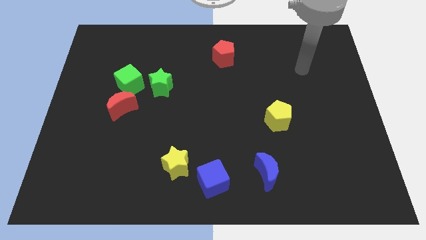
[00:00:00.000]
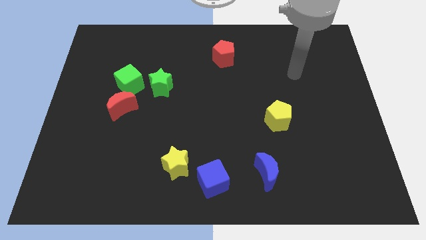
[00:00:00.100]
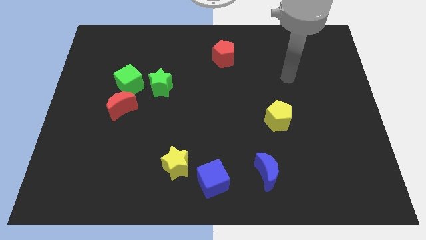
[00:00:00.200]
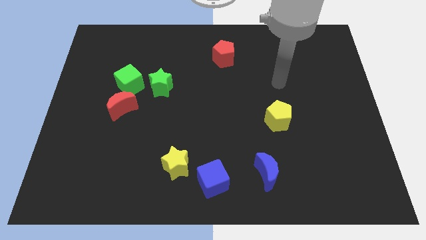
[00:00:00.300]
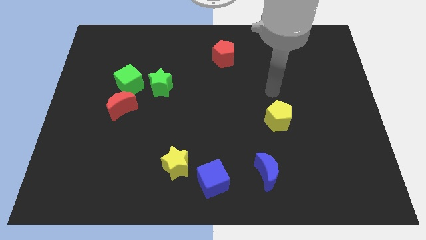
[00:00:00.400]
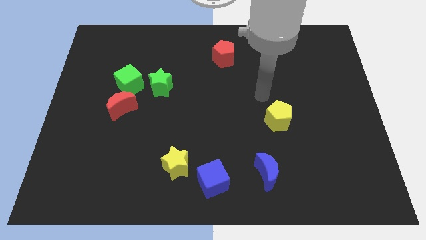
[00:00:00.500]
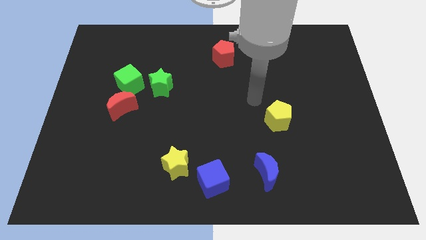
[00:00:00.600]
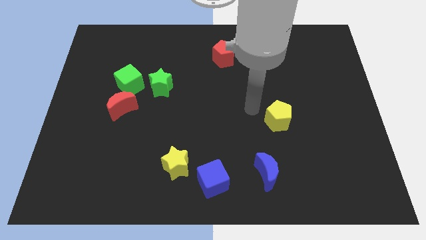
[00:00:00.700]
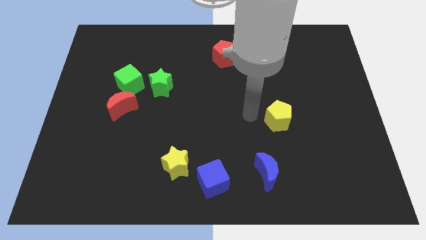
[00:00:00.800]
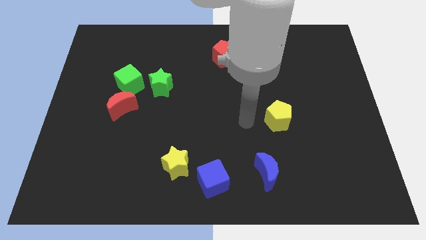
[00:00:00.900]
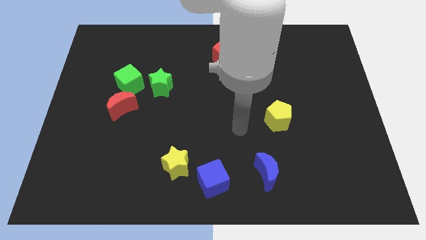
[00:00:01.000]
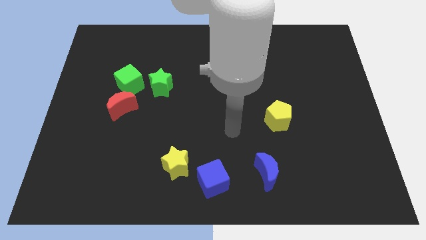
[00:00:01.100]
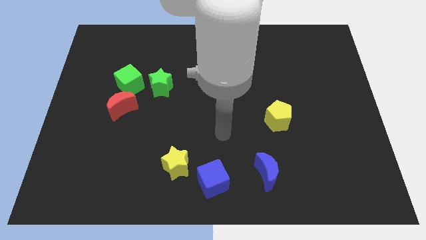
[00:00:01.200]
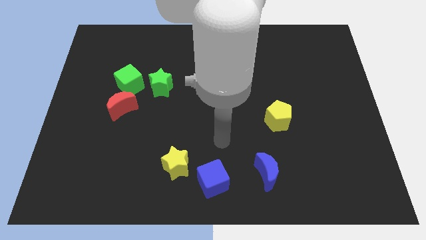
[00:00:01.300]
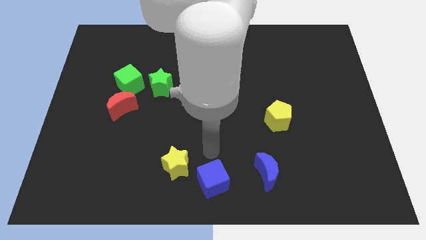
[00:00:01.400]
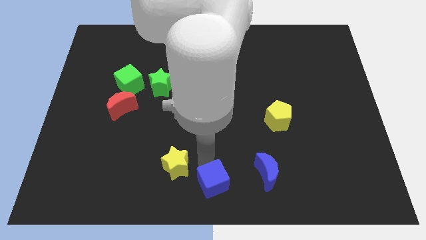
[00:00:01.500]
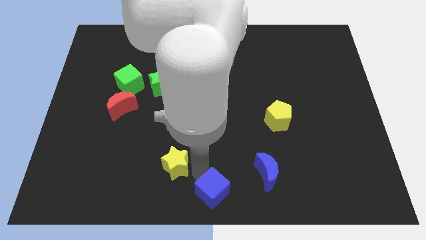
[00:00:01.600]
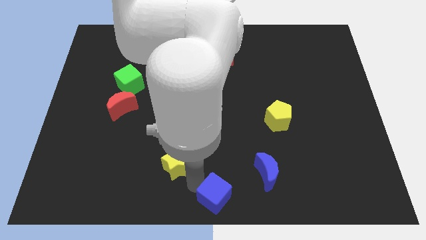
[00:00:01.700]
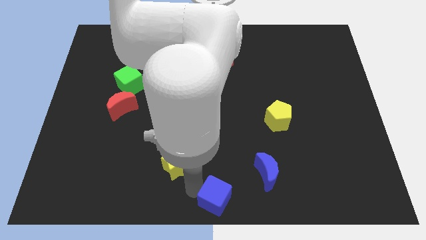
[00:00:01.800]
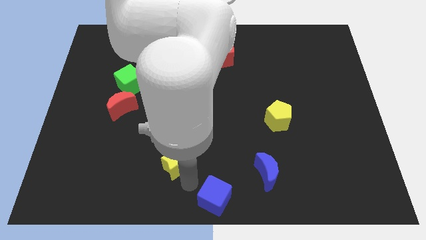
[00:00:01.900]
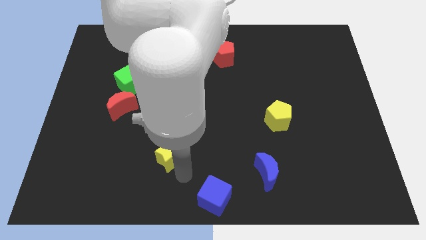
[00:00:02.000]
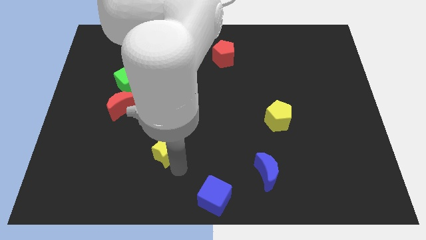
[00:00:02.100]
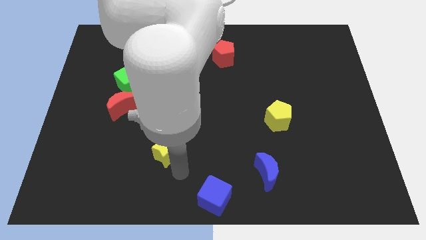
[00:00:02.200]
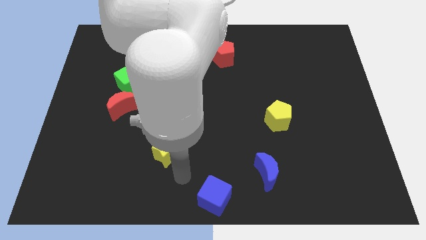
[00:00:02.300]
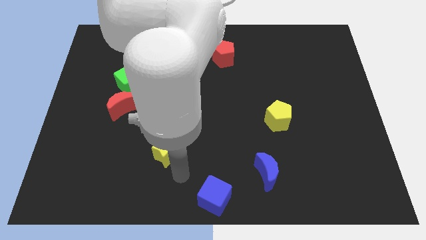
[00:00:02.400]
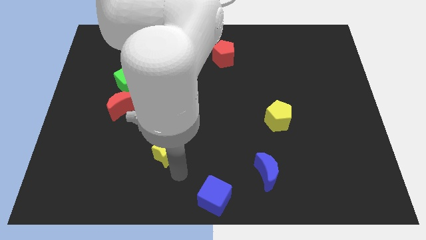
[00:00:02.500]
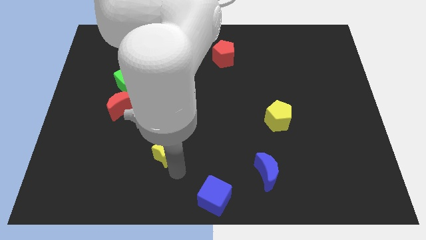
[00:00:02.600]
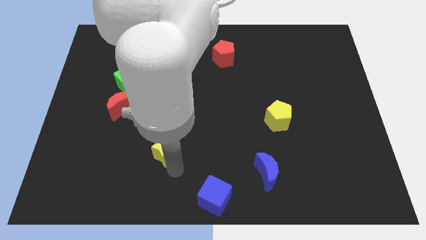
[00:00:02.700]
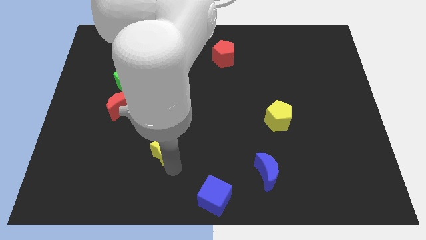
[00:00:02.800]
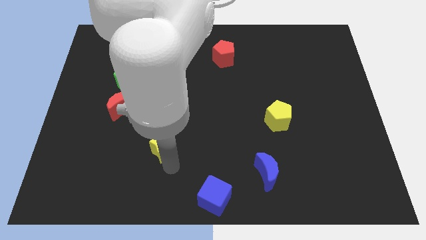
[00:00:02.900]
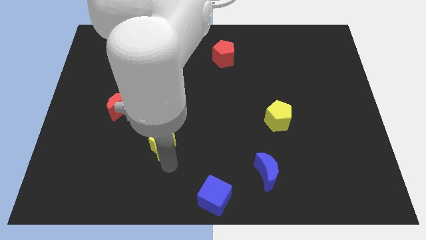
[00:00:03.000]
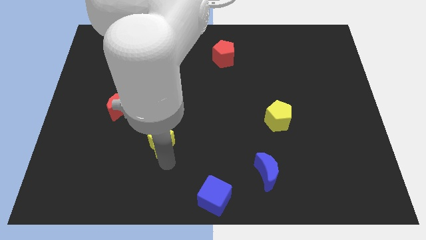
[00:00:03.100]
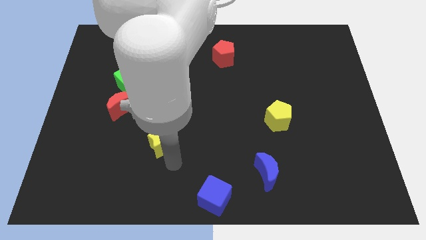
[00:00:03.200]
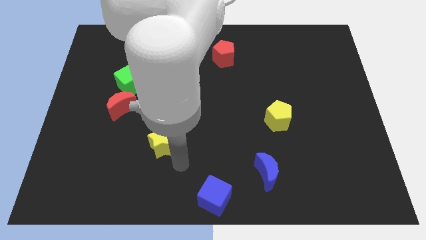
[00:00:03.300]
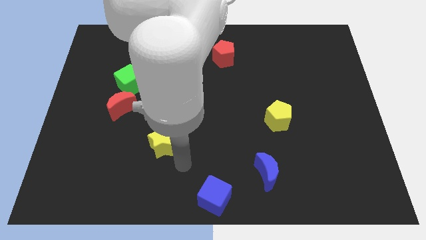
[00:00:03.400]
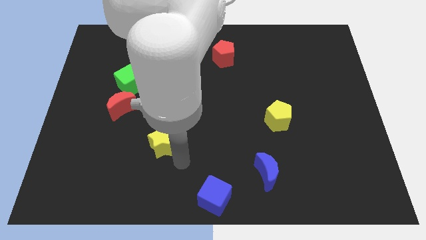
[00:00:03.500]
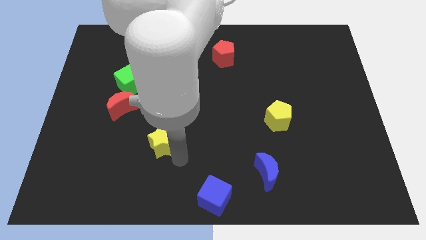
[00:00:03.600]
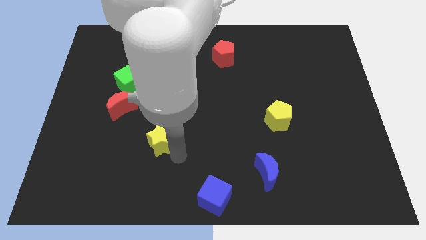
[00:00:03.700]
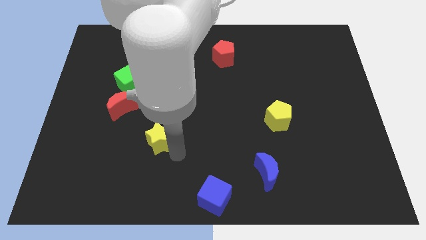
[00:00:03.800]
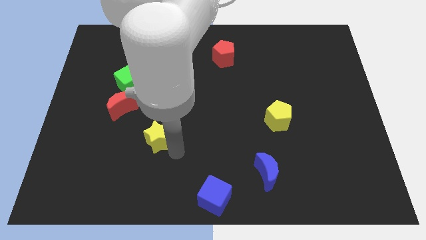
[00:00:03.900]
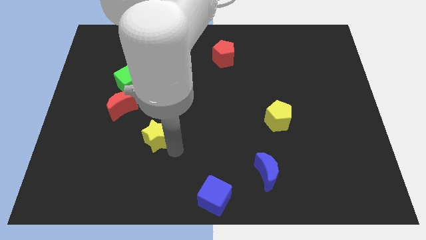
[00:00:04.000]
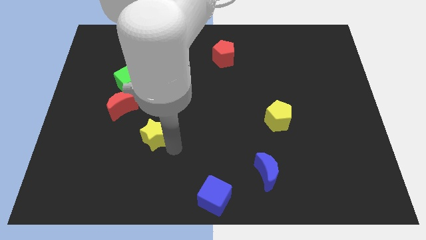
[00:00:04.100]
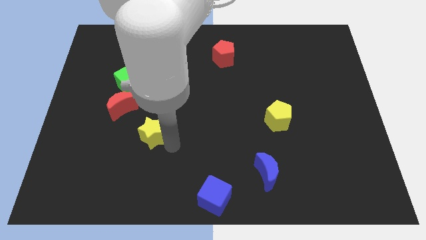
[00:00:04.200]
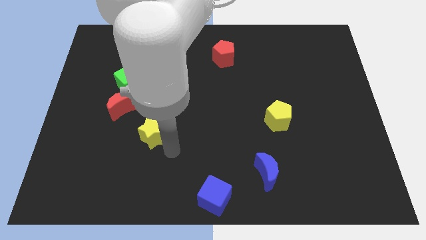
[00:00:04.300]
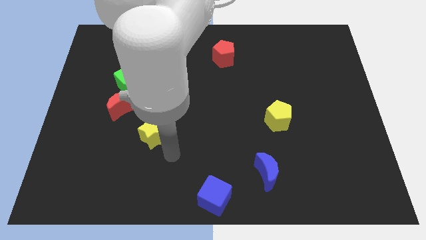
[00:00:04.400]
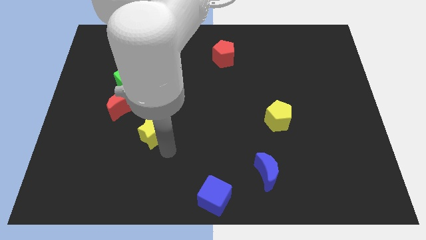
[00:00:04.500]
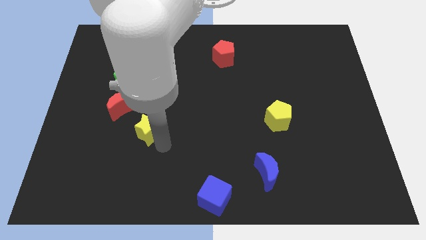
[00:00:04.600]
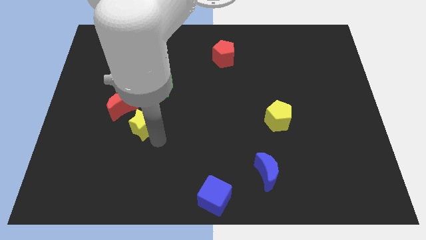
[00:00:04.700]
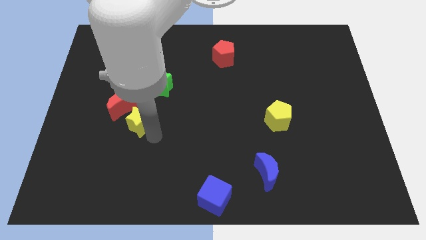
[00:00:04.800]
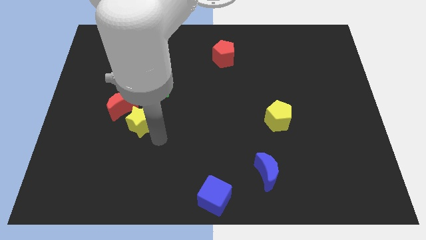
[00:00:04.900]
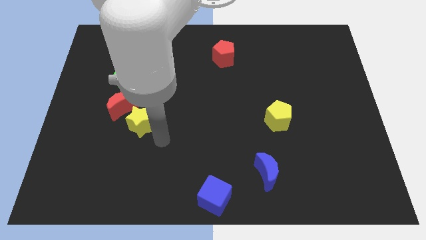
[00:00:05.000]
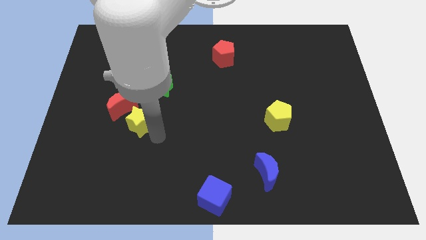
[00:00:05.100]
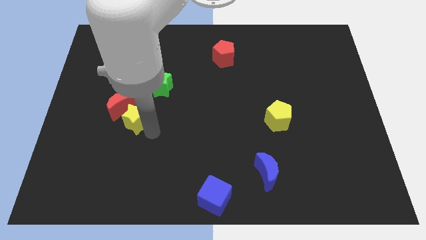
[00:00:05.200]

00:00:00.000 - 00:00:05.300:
push the yellow star towards the red moon

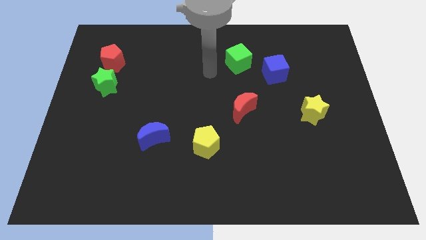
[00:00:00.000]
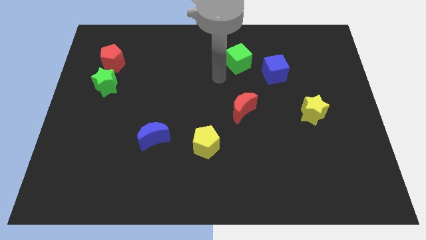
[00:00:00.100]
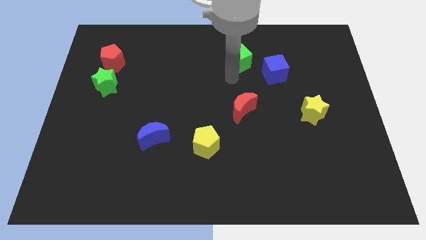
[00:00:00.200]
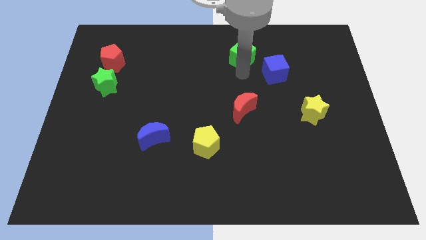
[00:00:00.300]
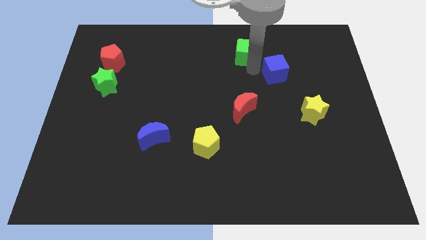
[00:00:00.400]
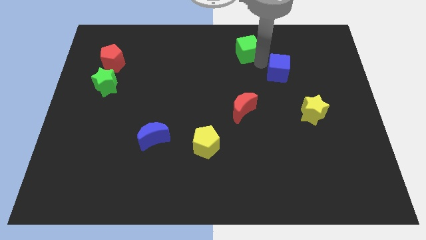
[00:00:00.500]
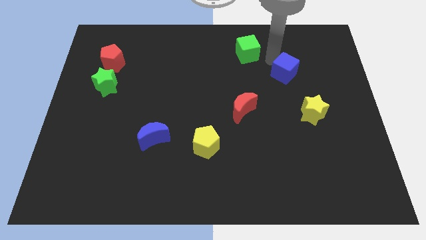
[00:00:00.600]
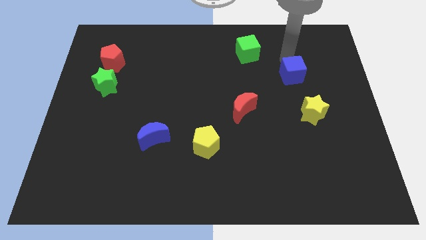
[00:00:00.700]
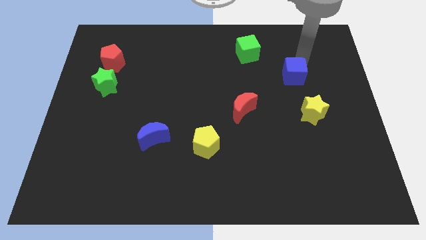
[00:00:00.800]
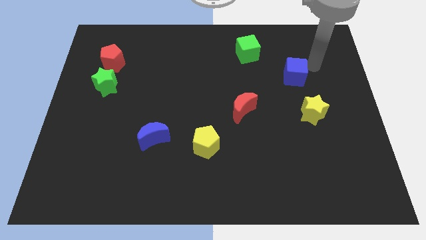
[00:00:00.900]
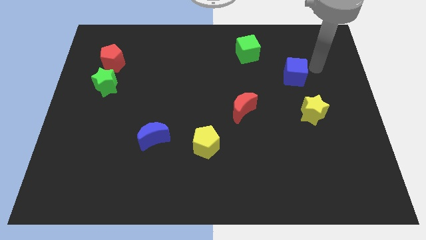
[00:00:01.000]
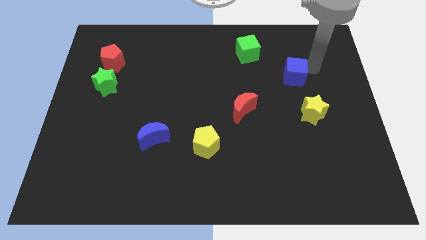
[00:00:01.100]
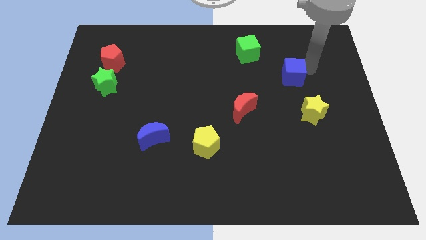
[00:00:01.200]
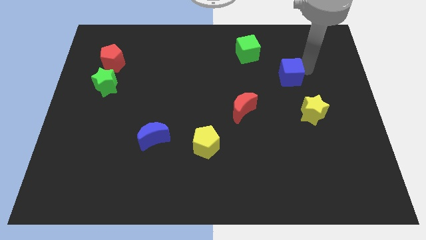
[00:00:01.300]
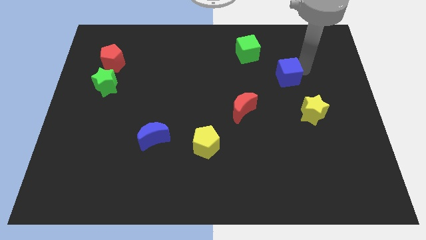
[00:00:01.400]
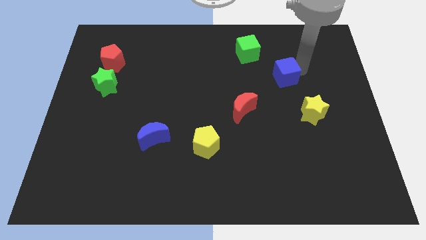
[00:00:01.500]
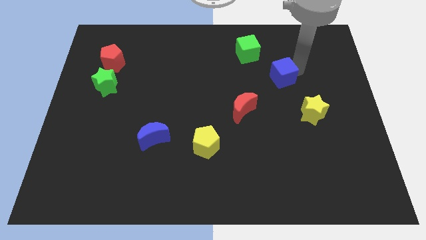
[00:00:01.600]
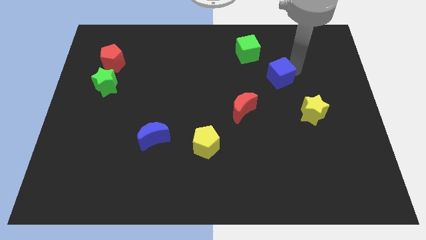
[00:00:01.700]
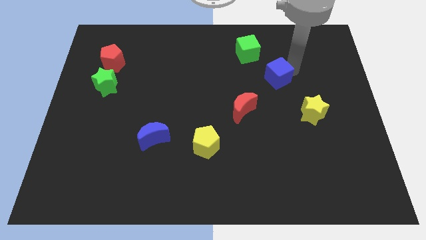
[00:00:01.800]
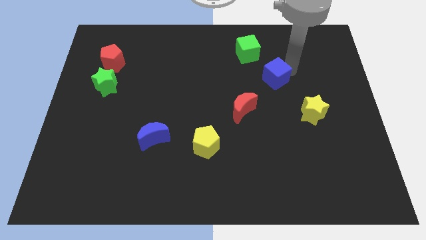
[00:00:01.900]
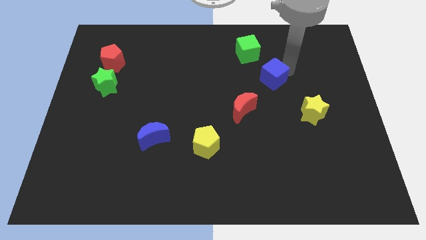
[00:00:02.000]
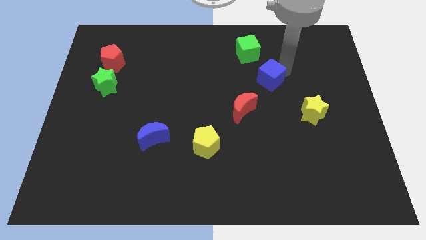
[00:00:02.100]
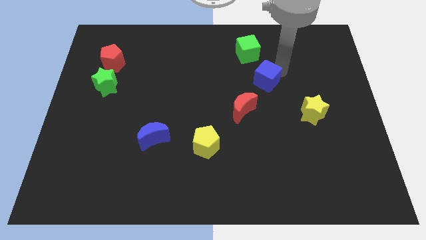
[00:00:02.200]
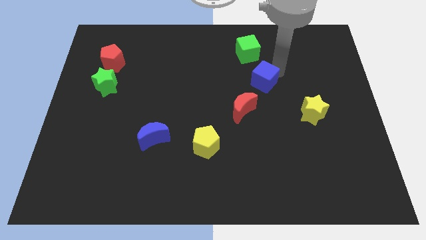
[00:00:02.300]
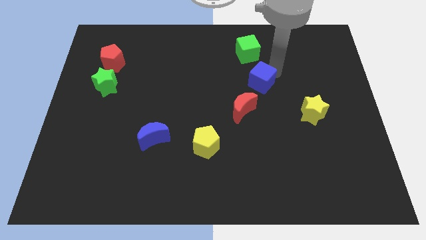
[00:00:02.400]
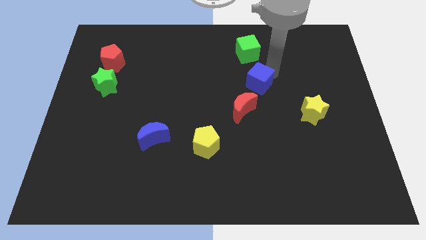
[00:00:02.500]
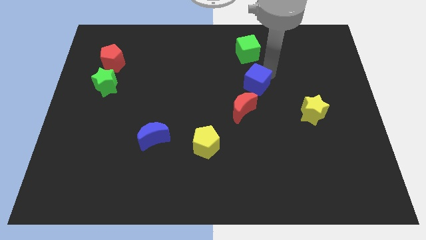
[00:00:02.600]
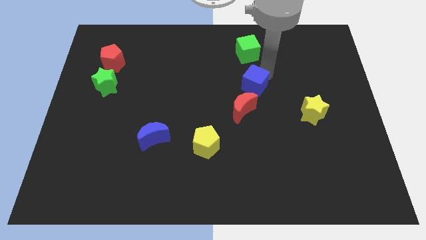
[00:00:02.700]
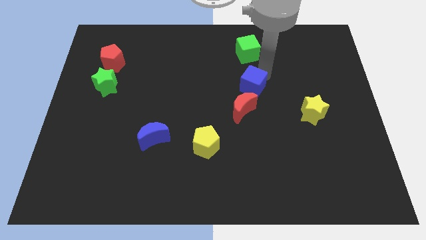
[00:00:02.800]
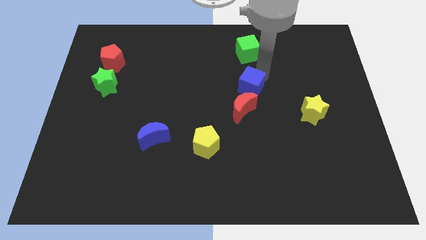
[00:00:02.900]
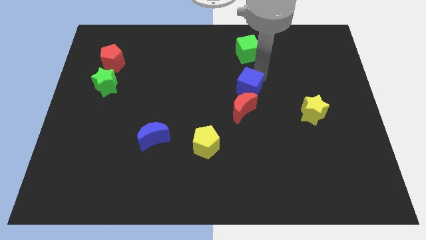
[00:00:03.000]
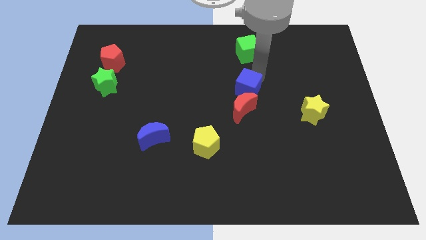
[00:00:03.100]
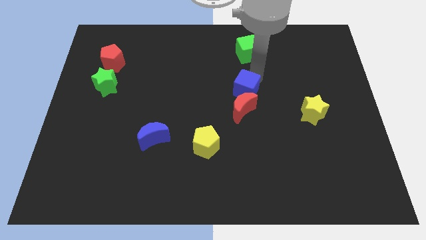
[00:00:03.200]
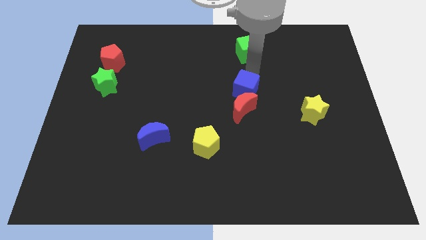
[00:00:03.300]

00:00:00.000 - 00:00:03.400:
push the blue cube close to the red moon
